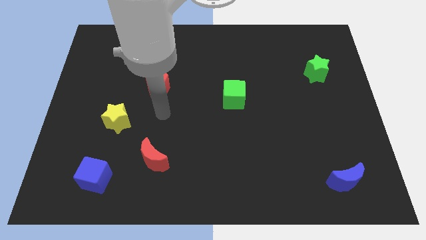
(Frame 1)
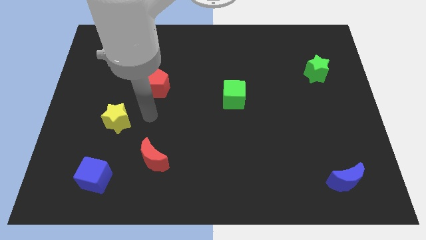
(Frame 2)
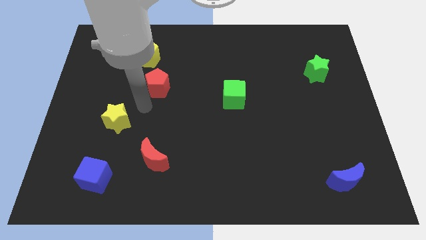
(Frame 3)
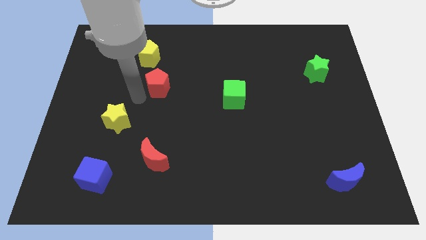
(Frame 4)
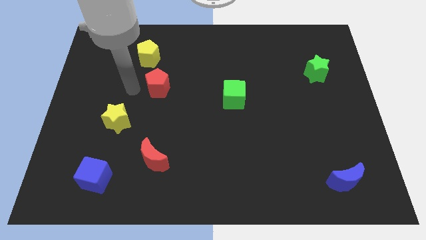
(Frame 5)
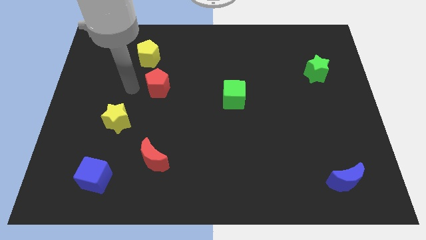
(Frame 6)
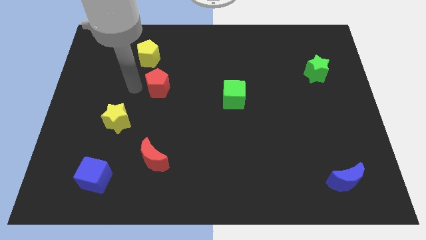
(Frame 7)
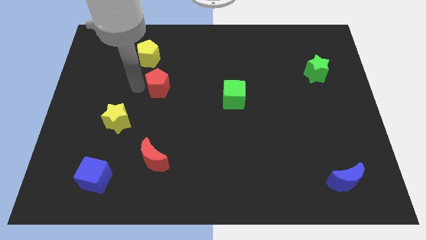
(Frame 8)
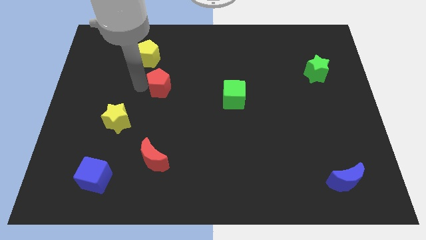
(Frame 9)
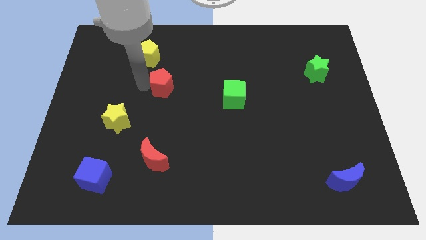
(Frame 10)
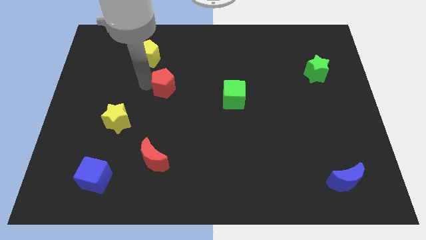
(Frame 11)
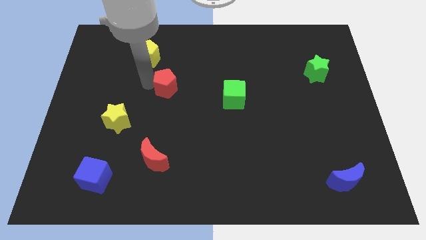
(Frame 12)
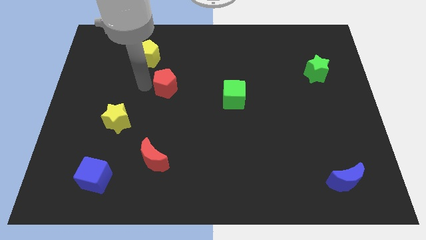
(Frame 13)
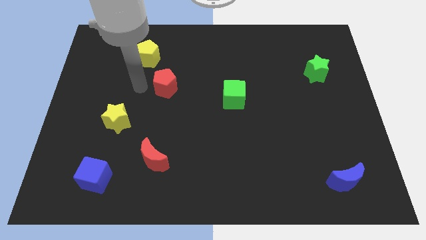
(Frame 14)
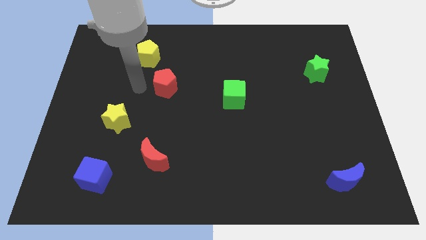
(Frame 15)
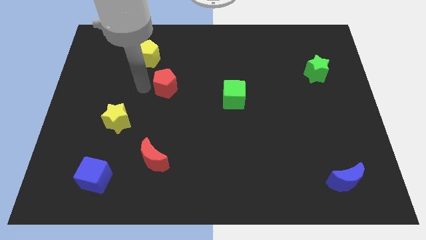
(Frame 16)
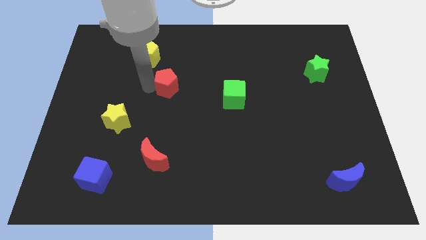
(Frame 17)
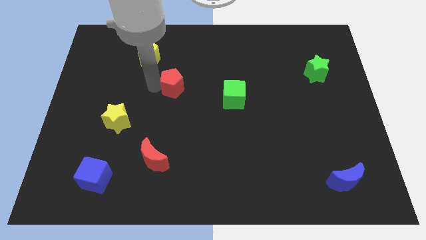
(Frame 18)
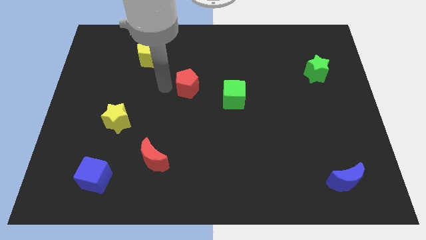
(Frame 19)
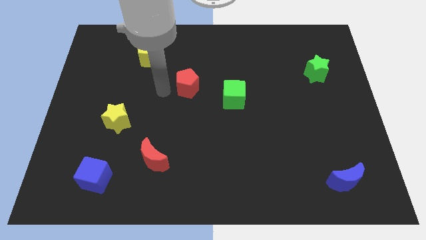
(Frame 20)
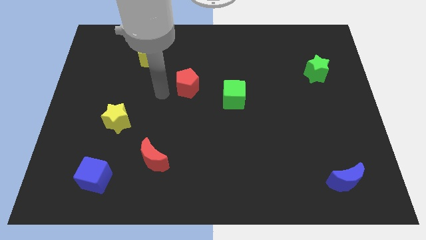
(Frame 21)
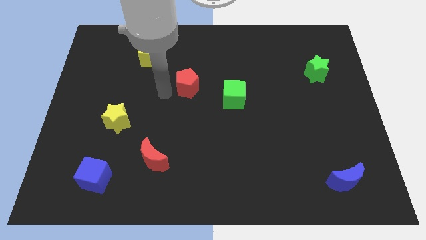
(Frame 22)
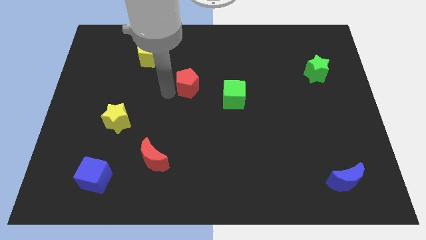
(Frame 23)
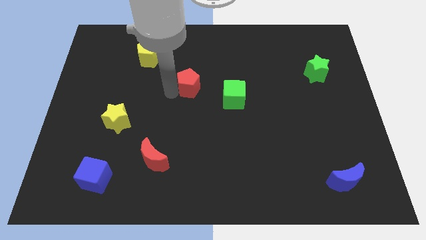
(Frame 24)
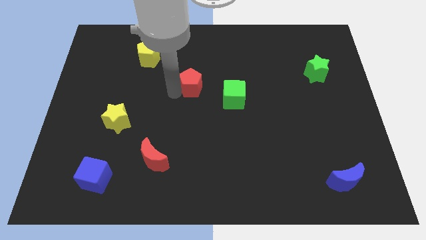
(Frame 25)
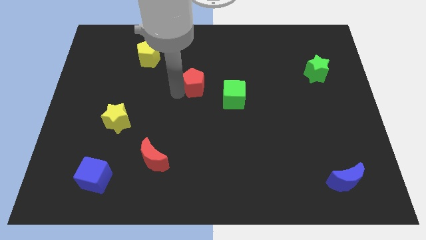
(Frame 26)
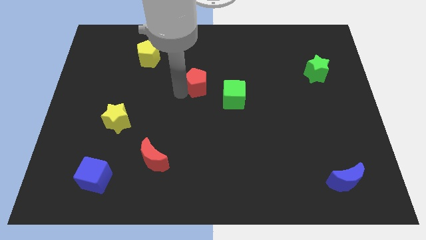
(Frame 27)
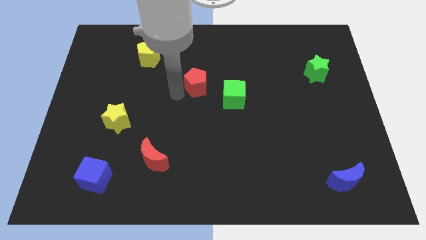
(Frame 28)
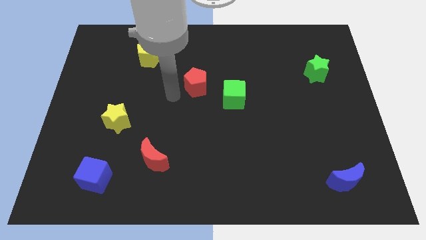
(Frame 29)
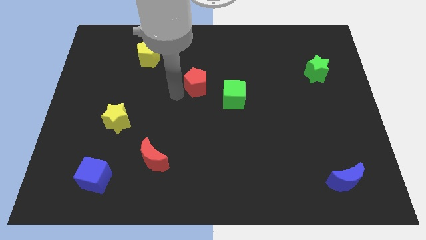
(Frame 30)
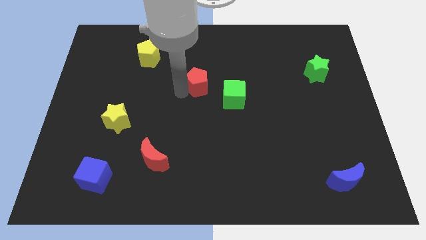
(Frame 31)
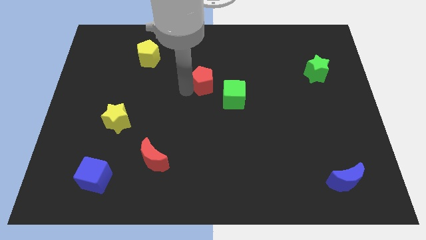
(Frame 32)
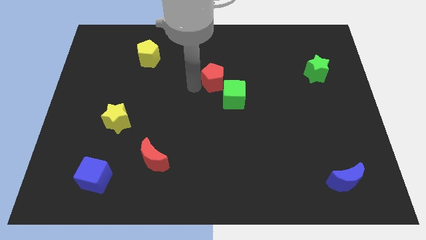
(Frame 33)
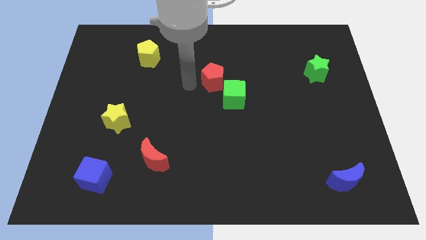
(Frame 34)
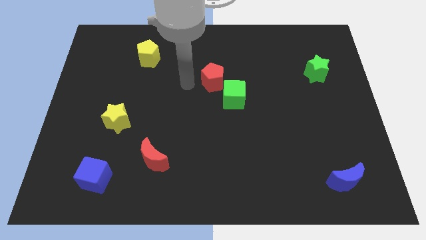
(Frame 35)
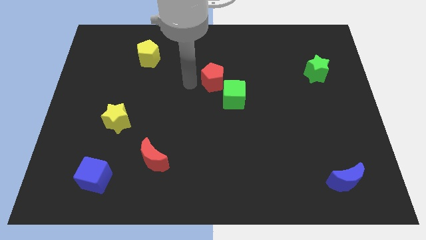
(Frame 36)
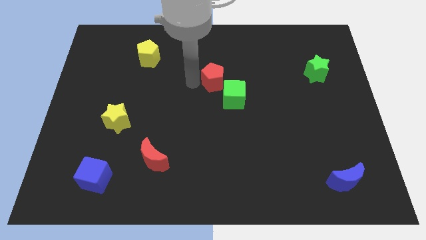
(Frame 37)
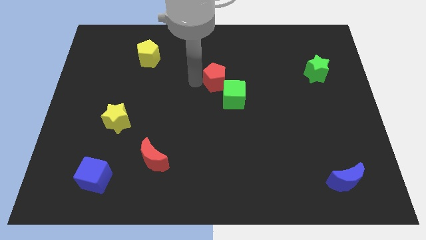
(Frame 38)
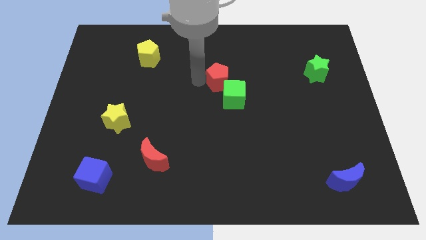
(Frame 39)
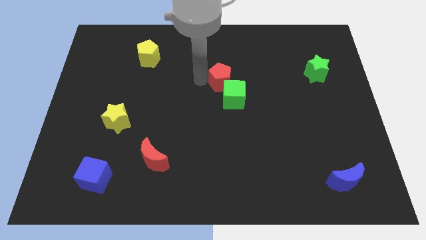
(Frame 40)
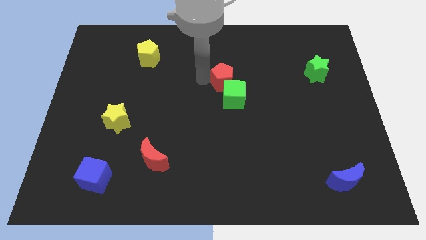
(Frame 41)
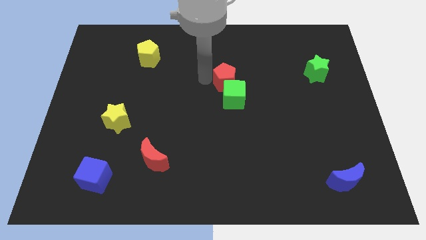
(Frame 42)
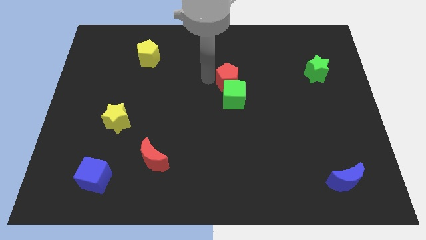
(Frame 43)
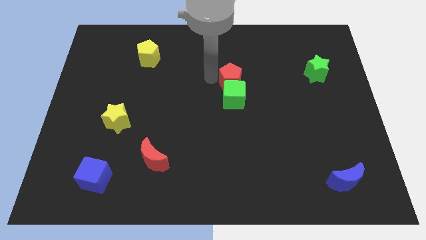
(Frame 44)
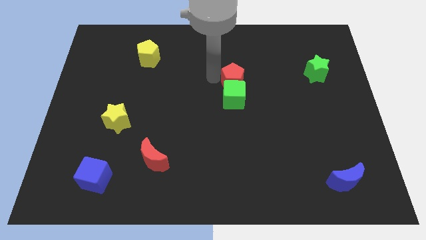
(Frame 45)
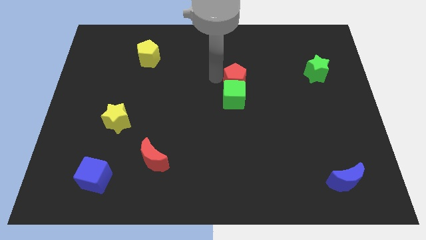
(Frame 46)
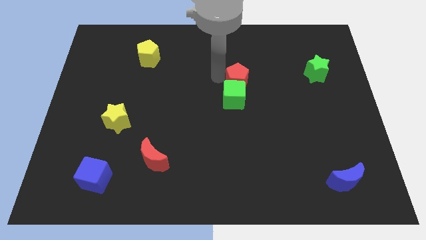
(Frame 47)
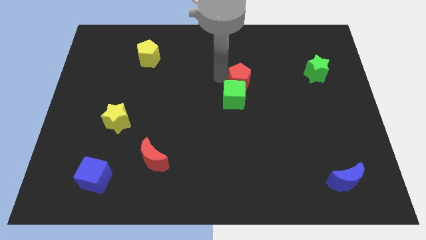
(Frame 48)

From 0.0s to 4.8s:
push the red pentagon right

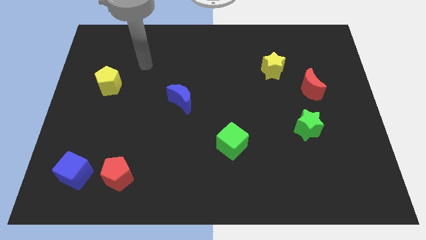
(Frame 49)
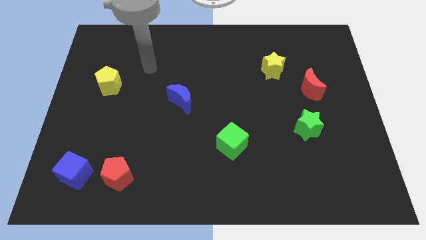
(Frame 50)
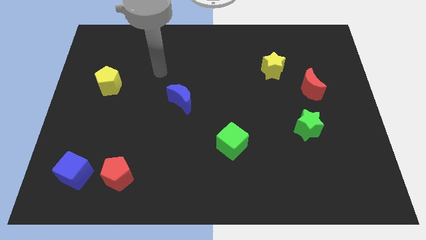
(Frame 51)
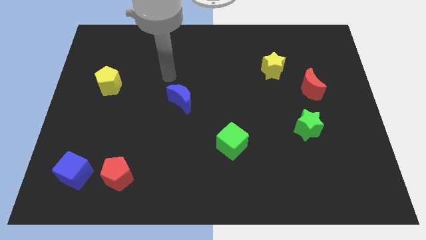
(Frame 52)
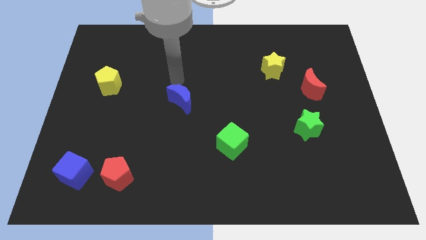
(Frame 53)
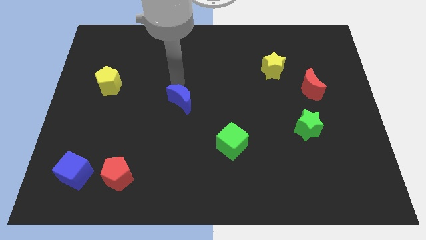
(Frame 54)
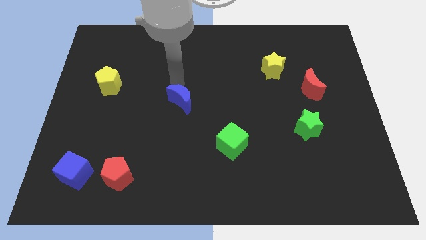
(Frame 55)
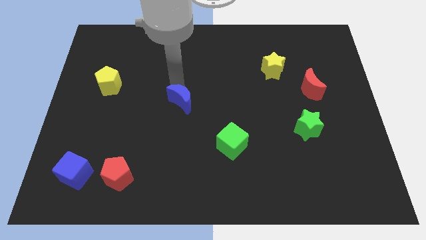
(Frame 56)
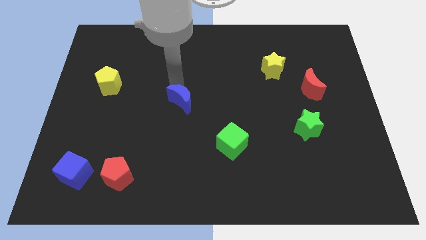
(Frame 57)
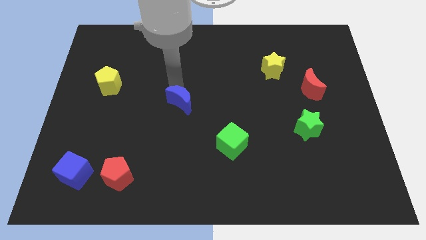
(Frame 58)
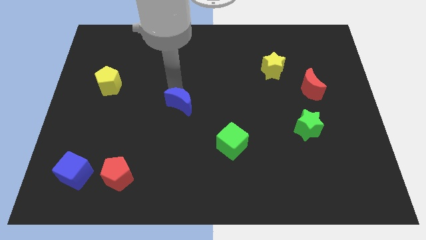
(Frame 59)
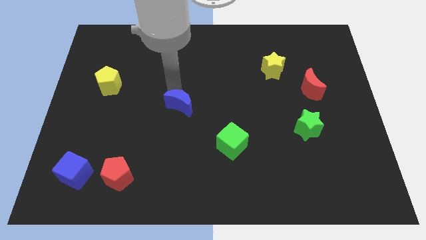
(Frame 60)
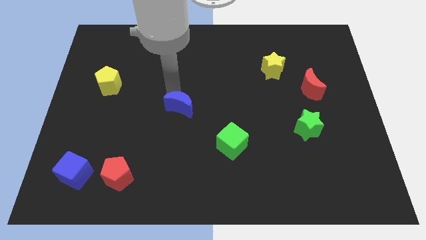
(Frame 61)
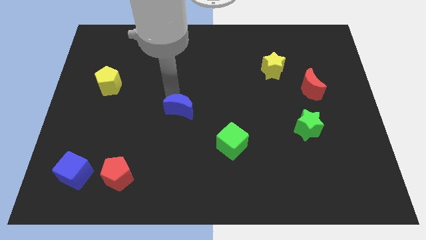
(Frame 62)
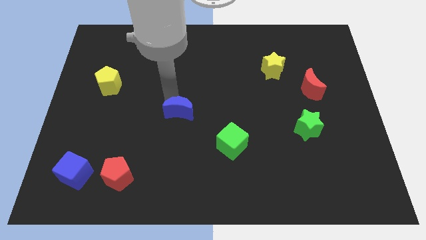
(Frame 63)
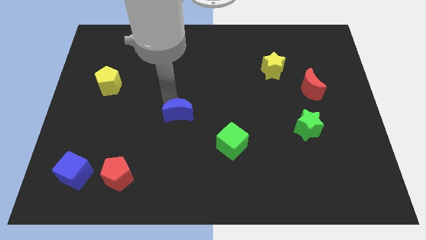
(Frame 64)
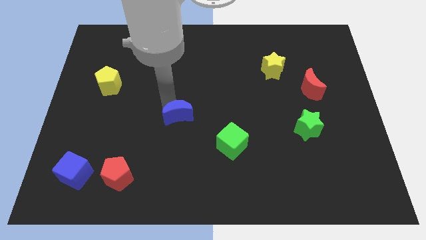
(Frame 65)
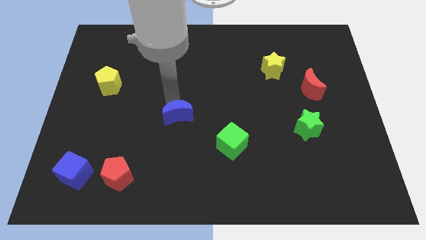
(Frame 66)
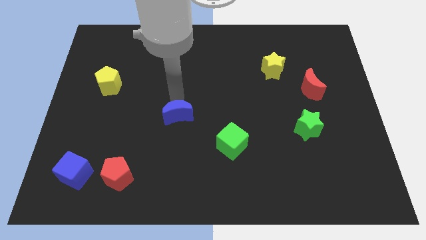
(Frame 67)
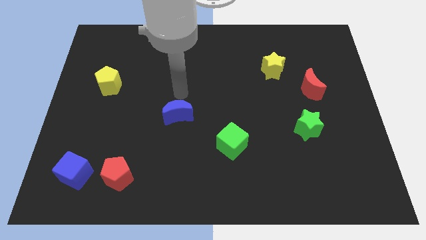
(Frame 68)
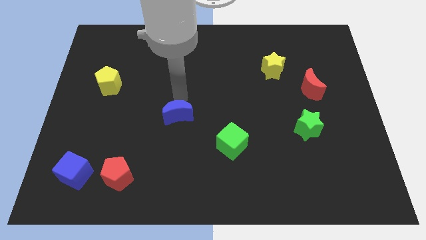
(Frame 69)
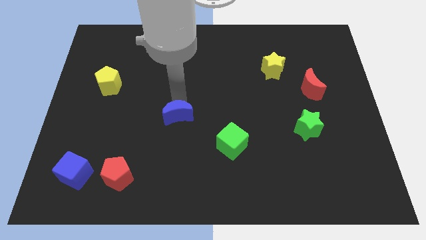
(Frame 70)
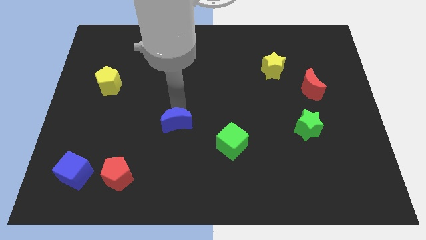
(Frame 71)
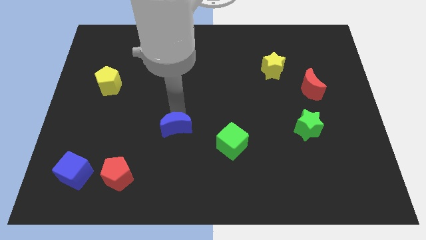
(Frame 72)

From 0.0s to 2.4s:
slightly slide the blue moon downwards

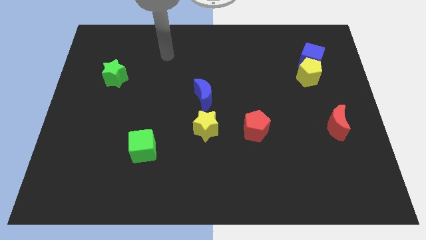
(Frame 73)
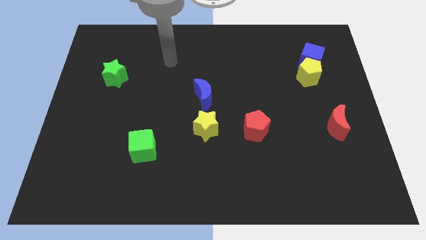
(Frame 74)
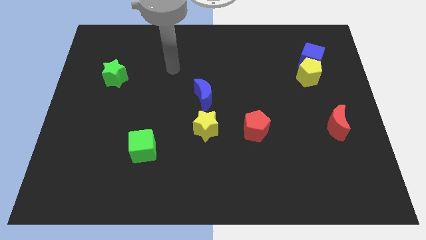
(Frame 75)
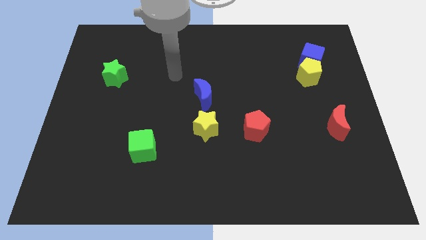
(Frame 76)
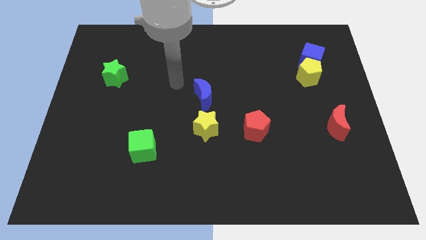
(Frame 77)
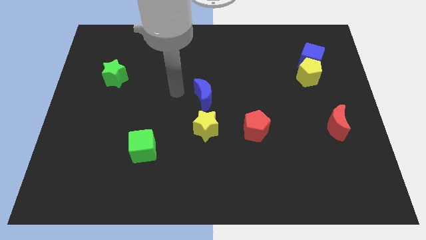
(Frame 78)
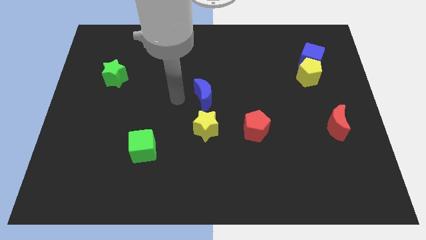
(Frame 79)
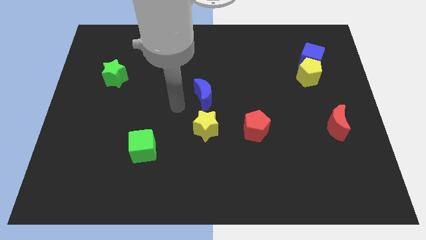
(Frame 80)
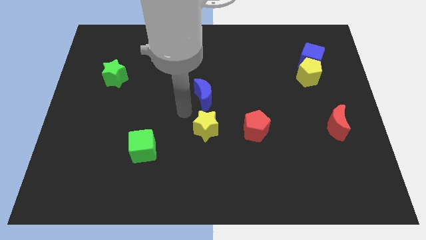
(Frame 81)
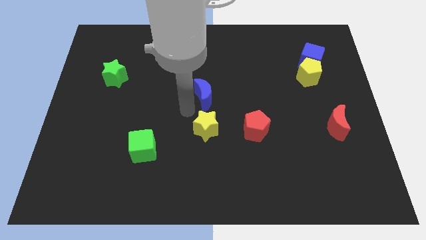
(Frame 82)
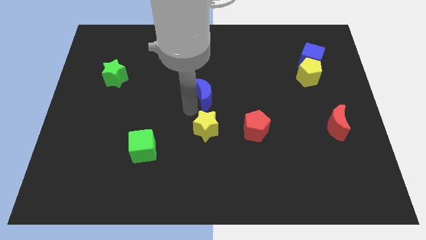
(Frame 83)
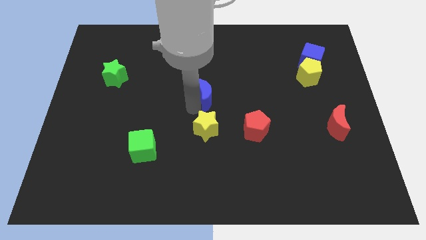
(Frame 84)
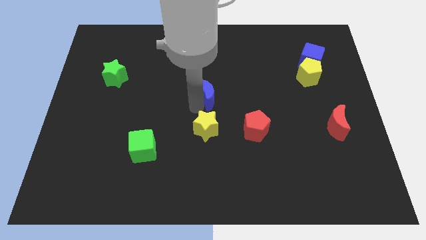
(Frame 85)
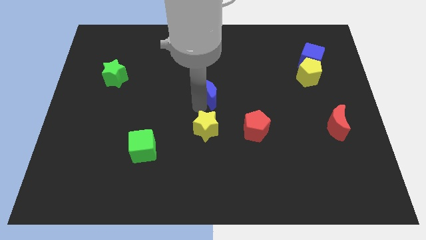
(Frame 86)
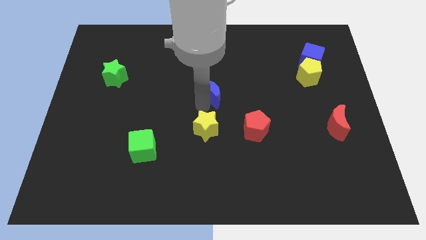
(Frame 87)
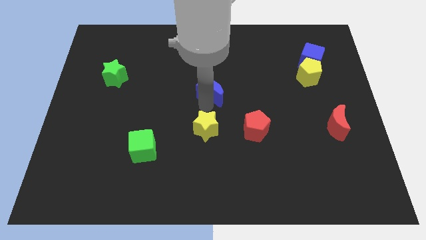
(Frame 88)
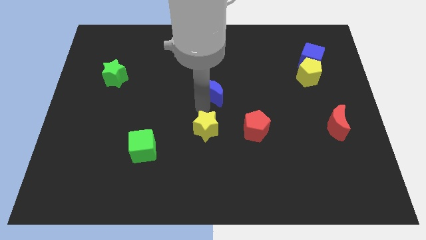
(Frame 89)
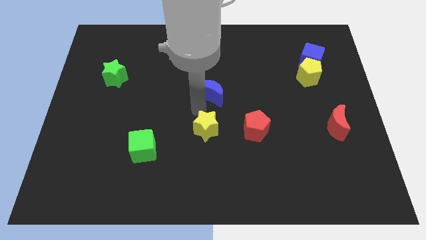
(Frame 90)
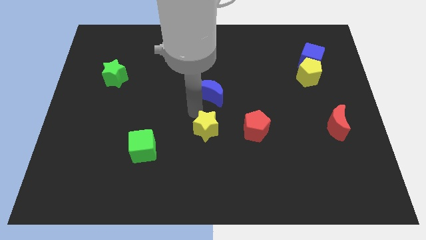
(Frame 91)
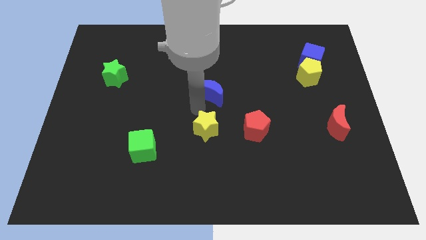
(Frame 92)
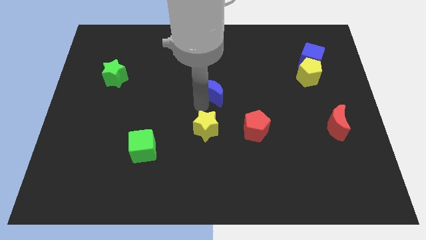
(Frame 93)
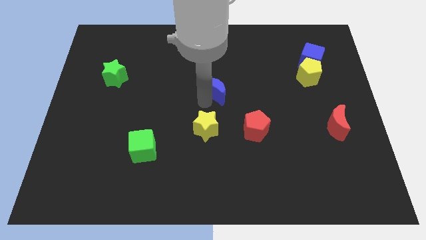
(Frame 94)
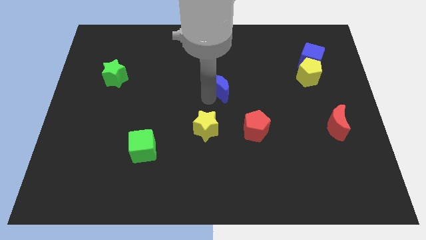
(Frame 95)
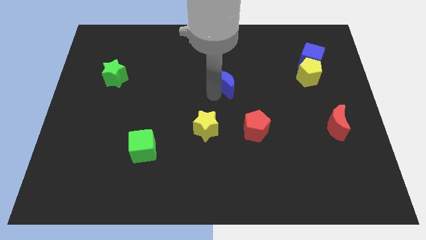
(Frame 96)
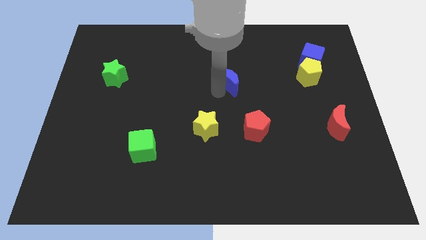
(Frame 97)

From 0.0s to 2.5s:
slide the blue moon upwards and to the right diagonally a little bit
